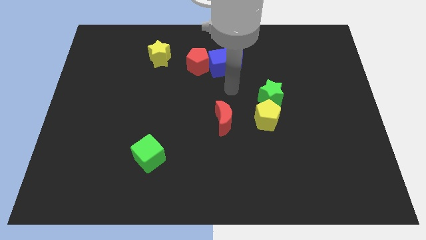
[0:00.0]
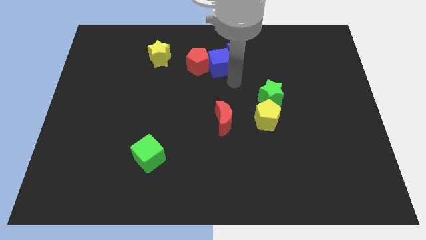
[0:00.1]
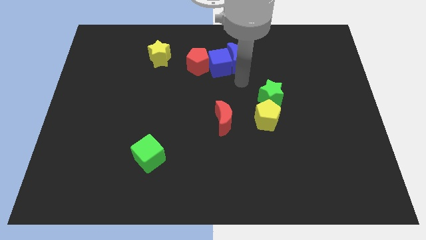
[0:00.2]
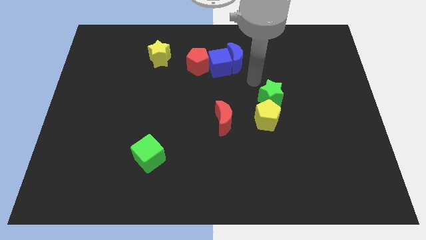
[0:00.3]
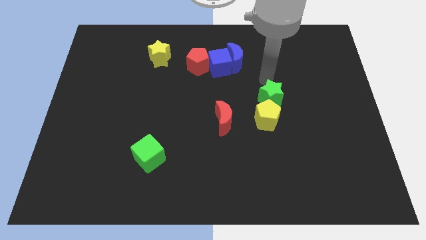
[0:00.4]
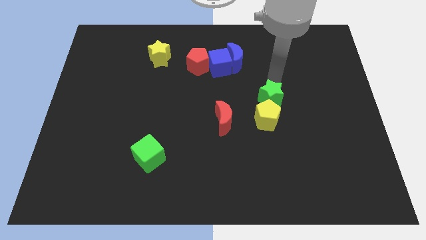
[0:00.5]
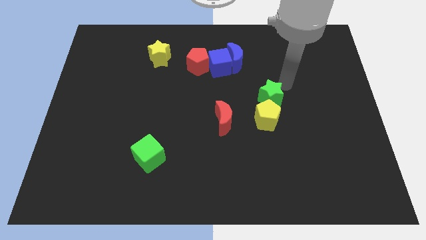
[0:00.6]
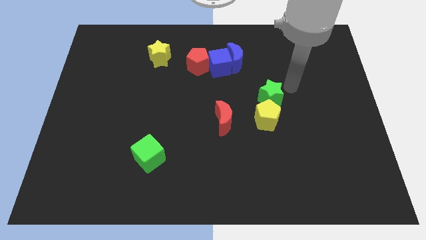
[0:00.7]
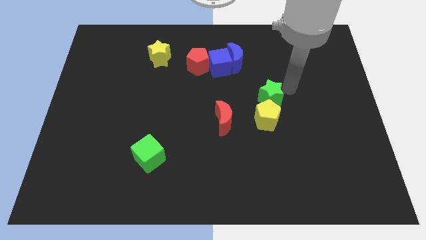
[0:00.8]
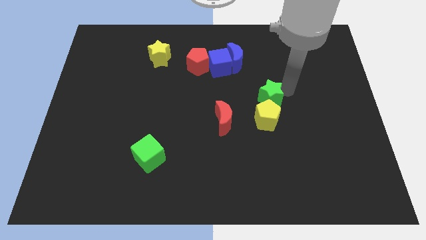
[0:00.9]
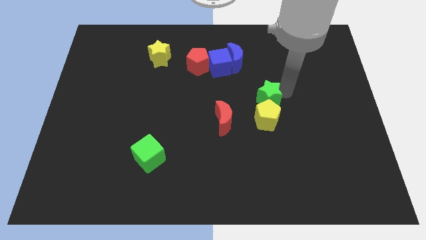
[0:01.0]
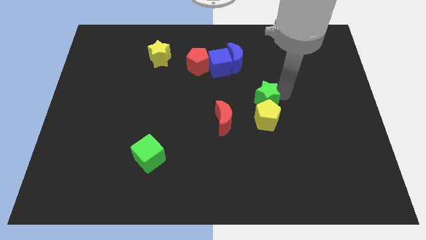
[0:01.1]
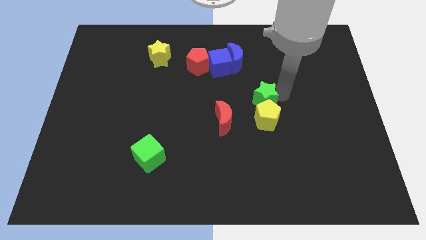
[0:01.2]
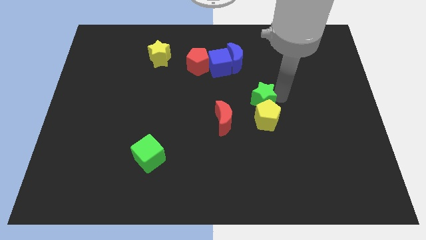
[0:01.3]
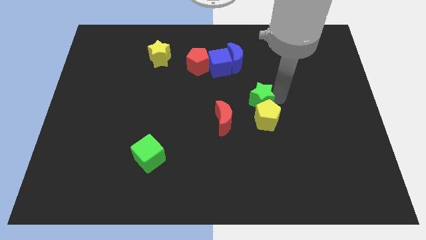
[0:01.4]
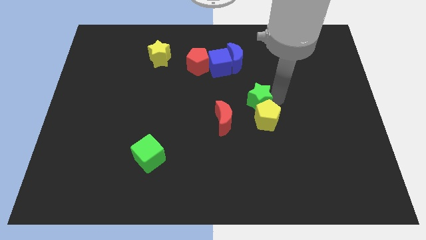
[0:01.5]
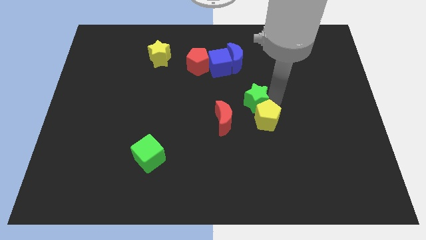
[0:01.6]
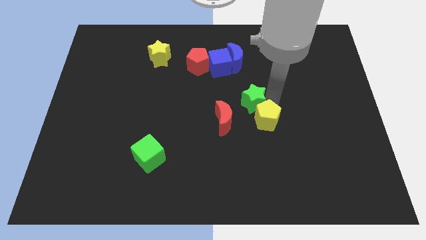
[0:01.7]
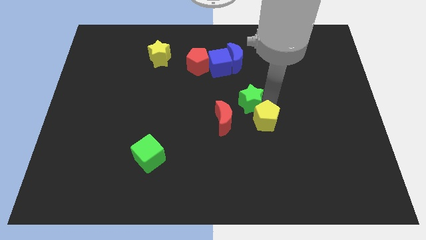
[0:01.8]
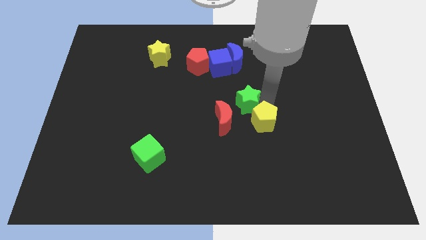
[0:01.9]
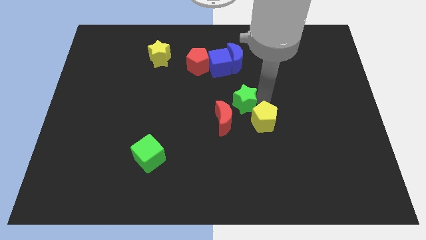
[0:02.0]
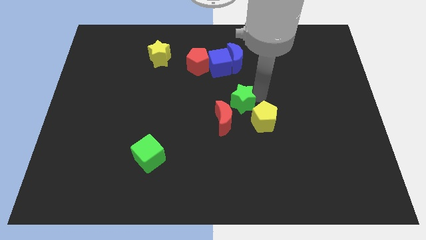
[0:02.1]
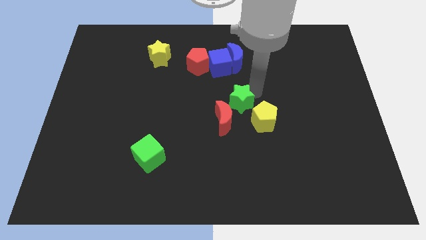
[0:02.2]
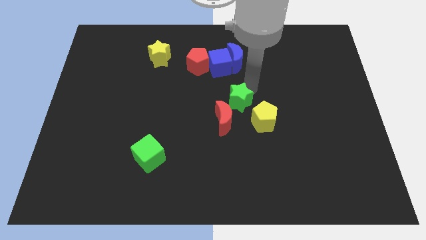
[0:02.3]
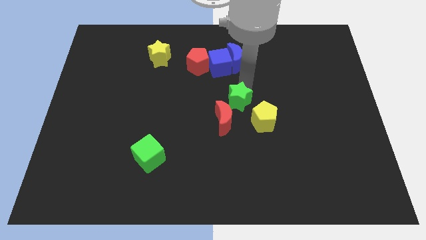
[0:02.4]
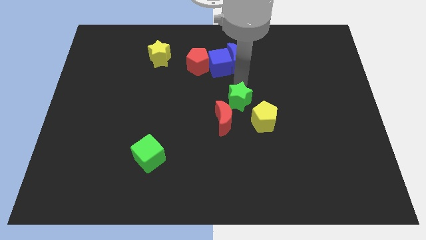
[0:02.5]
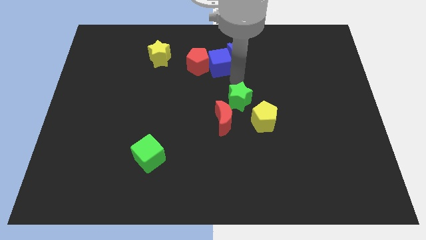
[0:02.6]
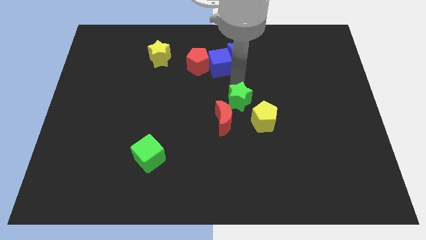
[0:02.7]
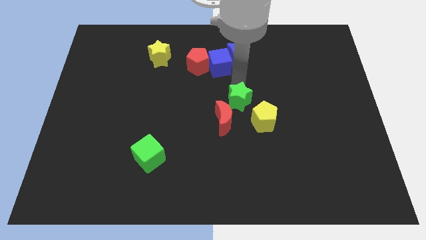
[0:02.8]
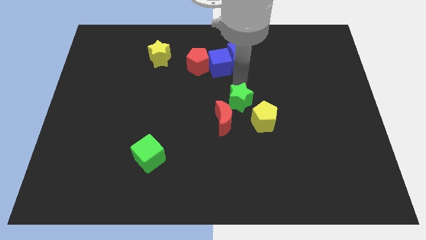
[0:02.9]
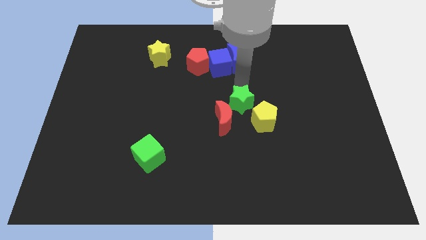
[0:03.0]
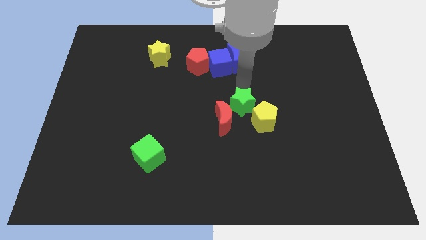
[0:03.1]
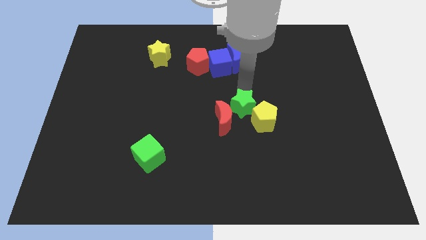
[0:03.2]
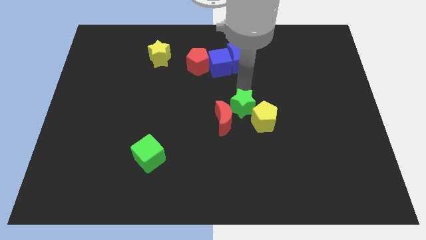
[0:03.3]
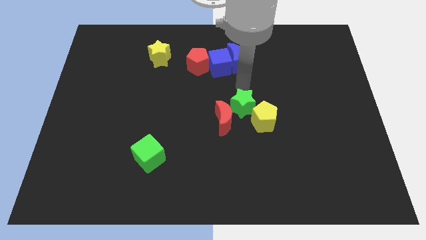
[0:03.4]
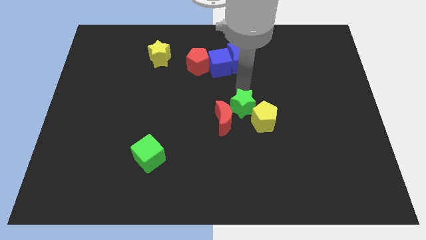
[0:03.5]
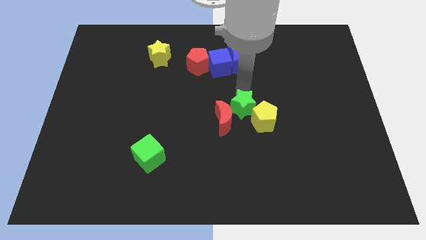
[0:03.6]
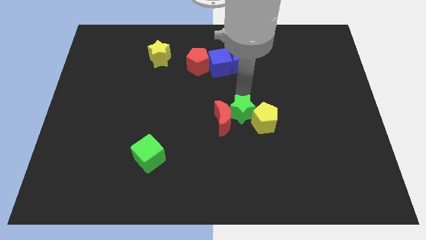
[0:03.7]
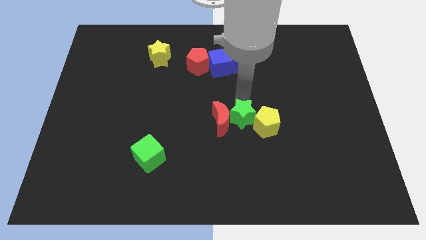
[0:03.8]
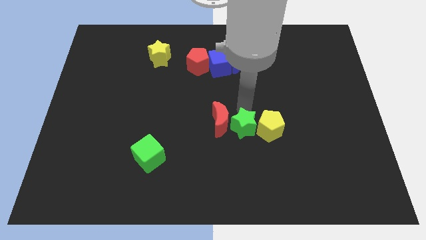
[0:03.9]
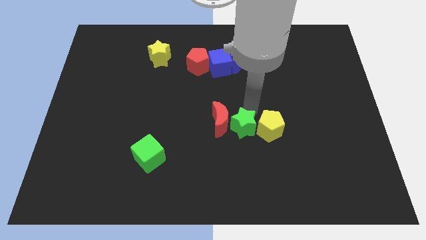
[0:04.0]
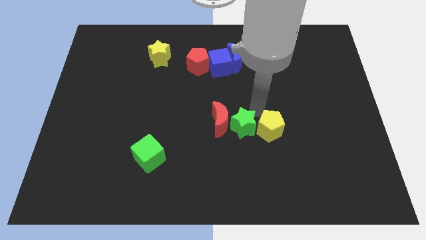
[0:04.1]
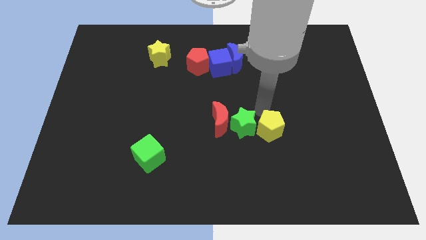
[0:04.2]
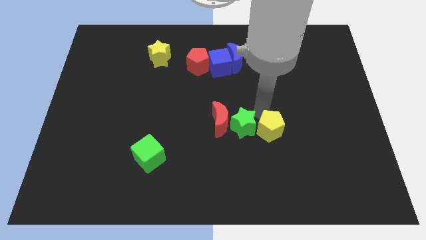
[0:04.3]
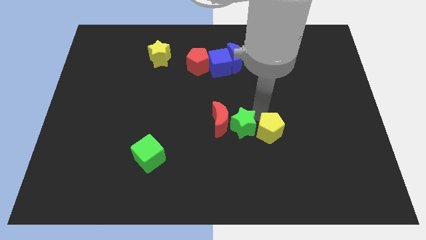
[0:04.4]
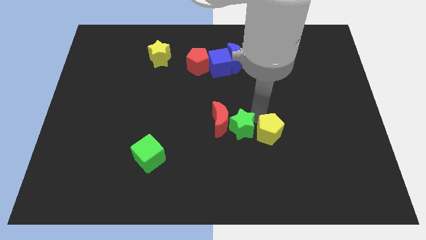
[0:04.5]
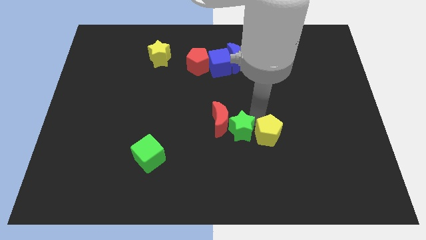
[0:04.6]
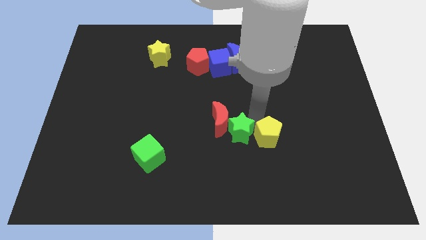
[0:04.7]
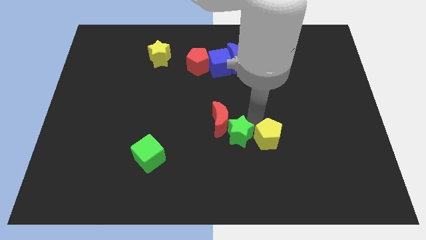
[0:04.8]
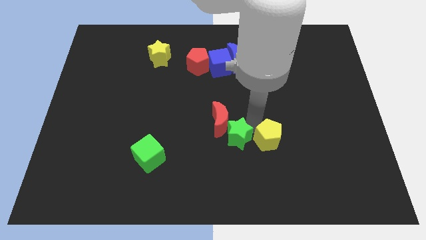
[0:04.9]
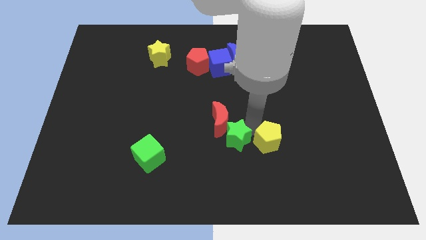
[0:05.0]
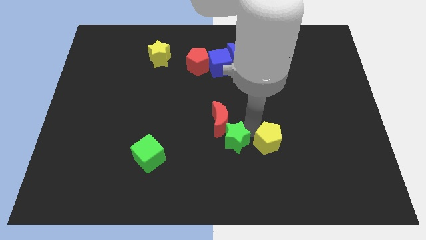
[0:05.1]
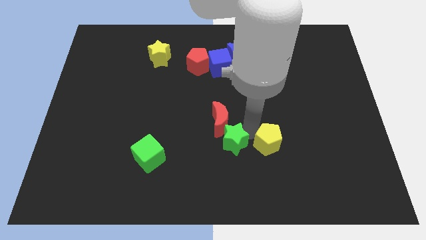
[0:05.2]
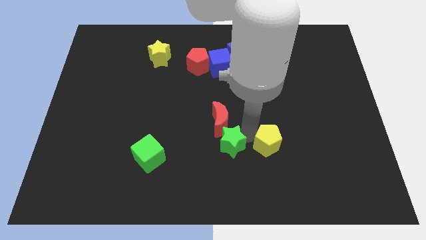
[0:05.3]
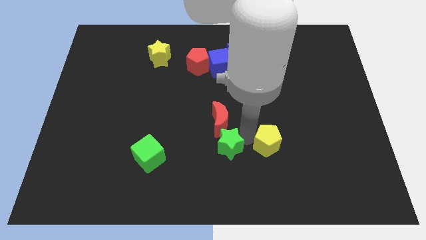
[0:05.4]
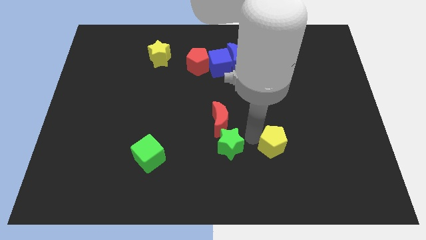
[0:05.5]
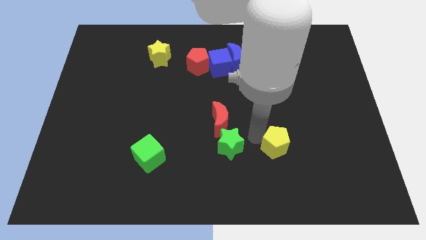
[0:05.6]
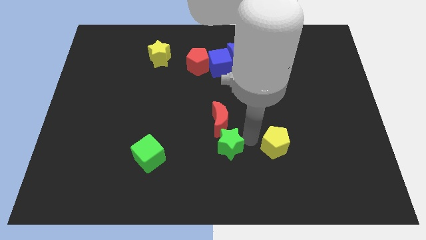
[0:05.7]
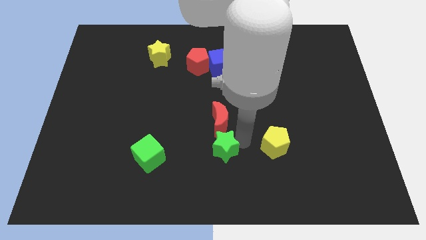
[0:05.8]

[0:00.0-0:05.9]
move the green star to the right side of the green cube

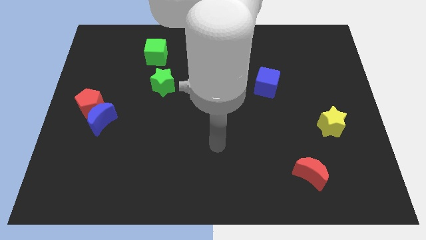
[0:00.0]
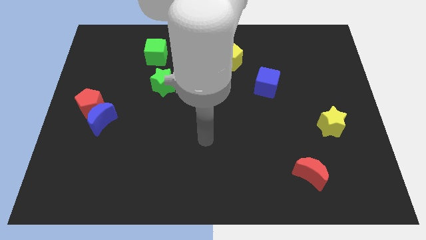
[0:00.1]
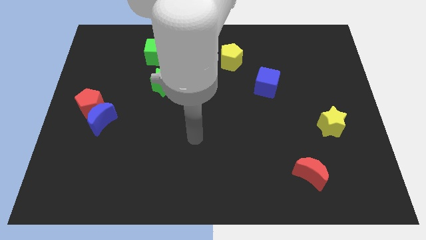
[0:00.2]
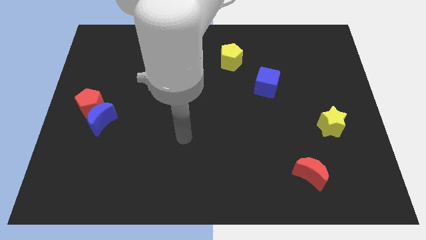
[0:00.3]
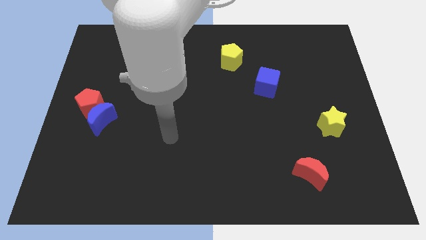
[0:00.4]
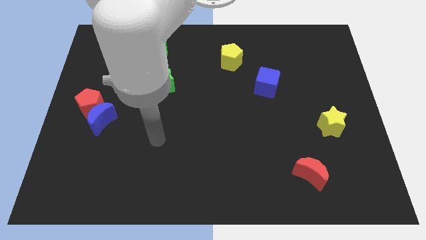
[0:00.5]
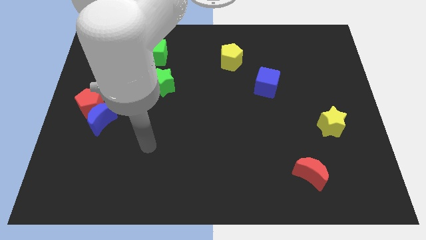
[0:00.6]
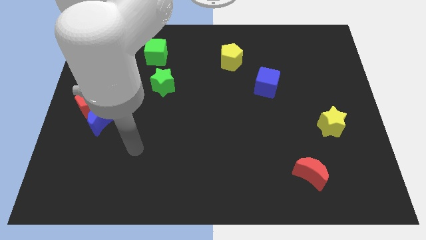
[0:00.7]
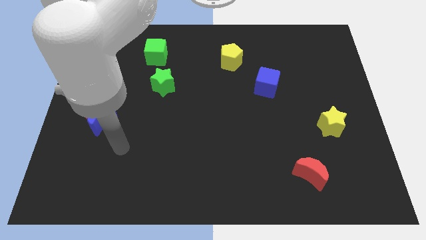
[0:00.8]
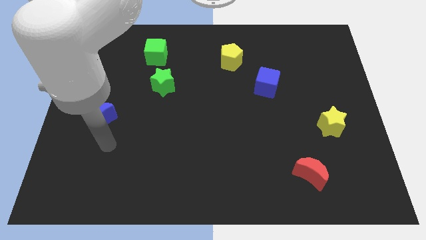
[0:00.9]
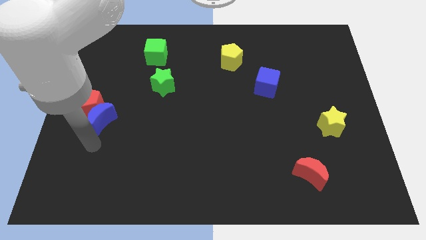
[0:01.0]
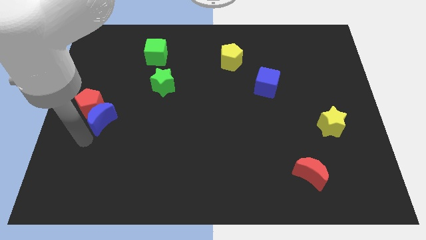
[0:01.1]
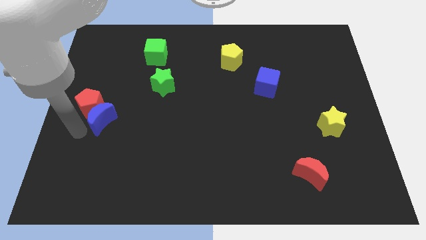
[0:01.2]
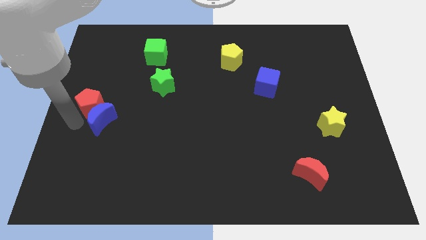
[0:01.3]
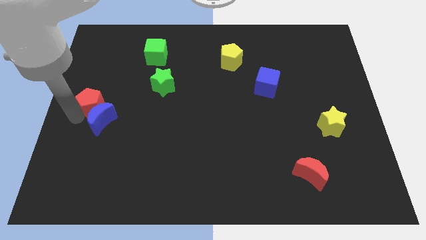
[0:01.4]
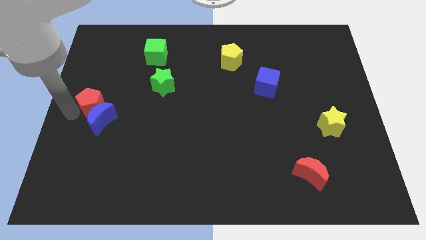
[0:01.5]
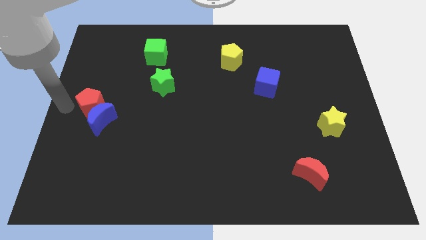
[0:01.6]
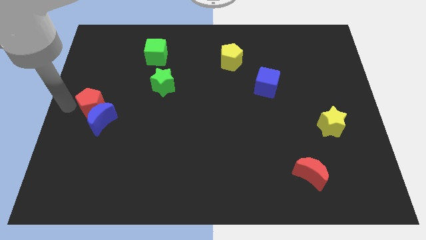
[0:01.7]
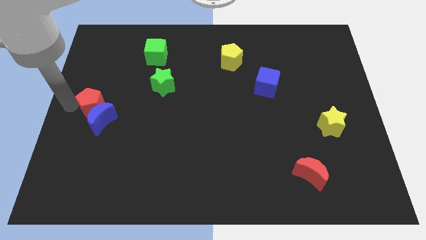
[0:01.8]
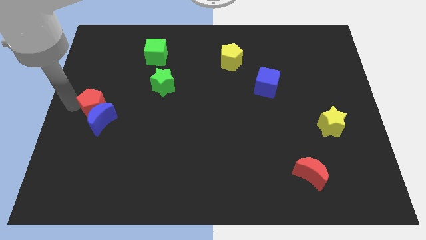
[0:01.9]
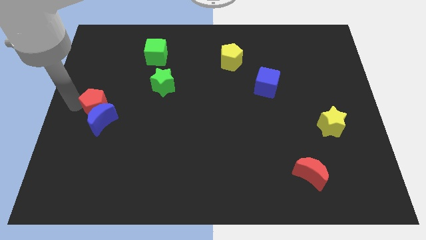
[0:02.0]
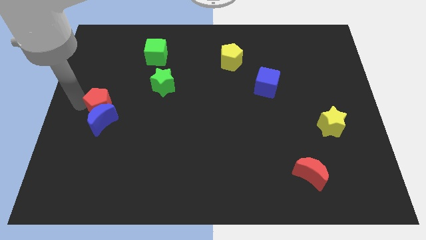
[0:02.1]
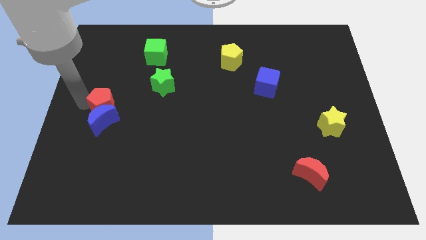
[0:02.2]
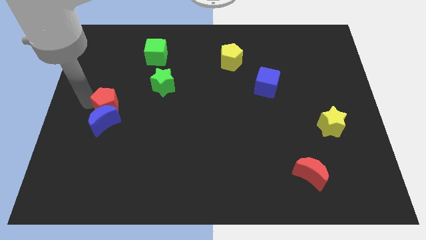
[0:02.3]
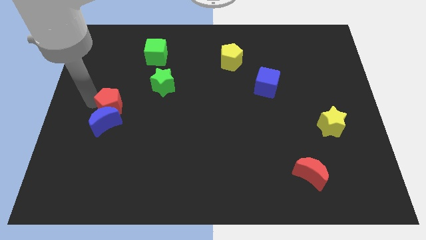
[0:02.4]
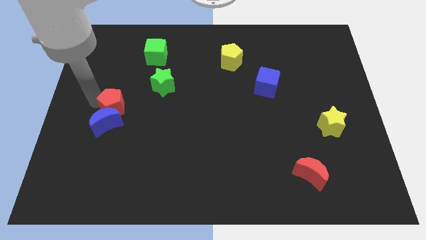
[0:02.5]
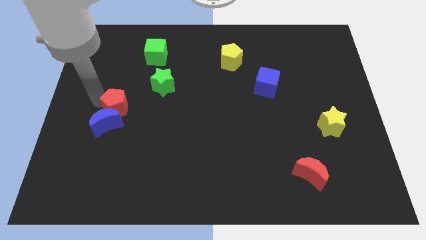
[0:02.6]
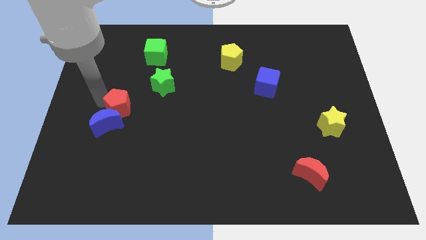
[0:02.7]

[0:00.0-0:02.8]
put the red pentagon to the bottom left side of the green star
